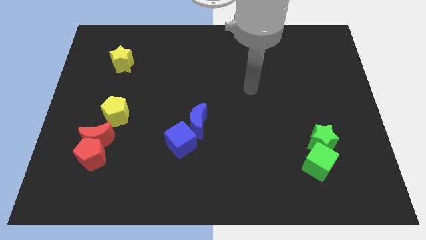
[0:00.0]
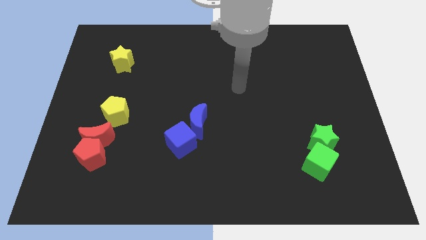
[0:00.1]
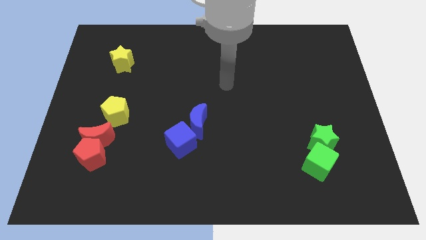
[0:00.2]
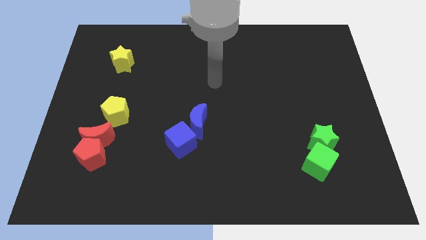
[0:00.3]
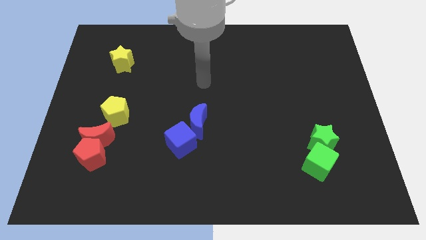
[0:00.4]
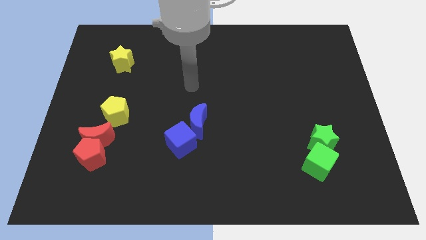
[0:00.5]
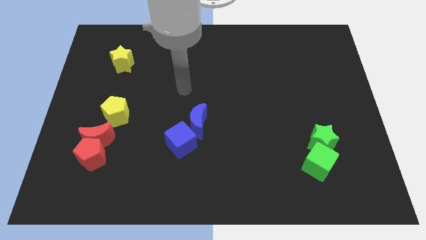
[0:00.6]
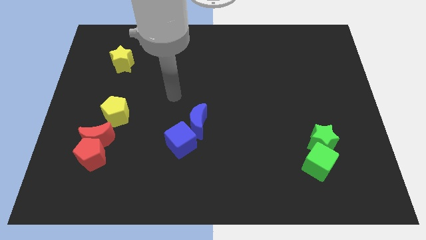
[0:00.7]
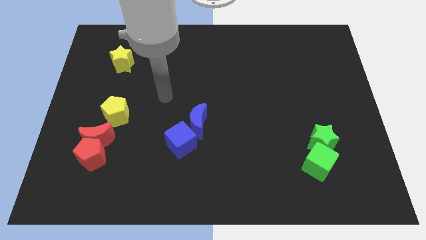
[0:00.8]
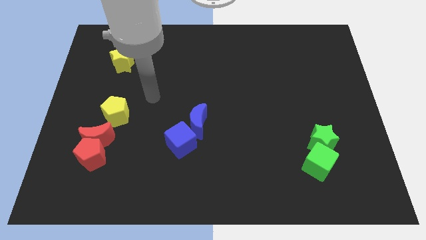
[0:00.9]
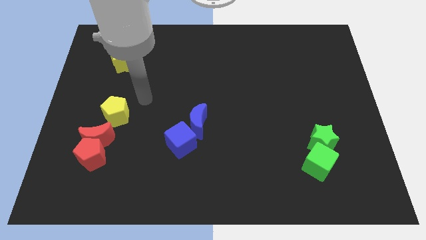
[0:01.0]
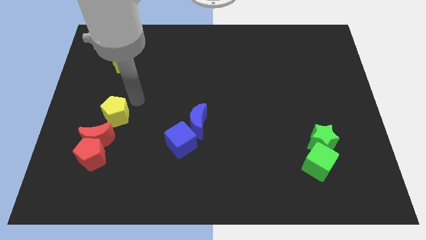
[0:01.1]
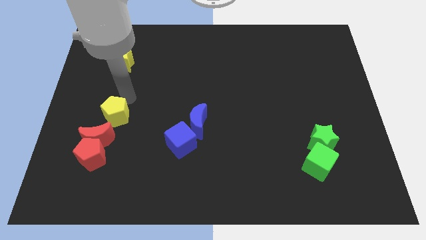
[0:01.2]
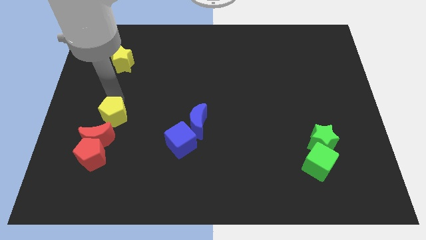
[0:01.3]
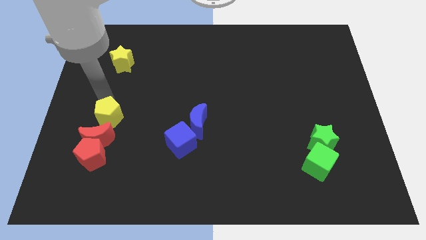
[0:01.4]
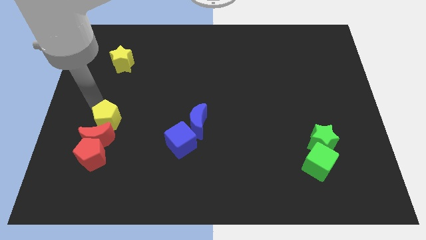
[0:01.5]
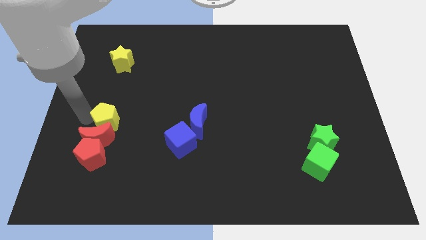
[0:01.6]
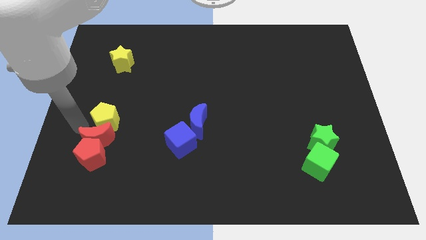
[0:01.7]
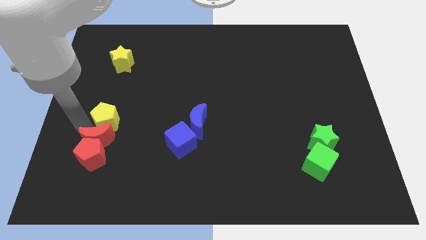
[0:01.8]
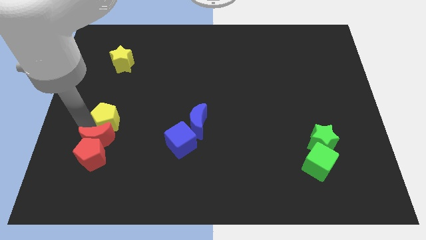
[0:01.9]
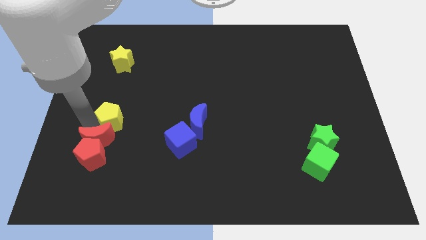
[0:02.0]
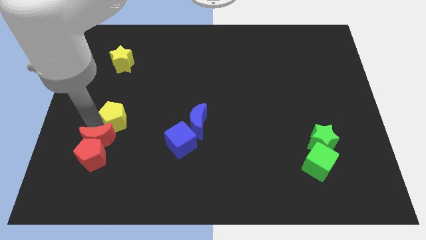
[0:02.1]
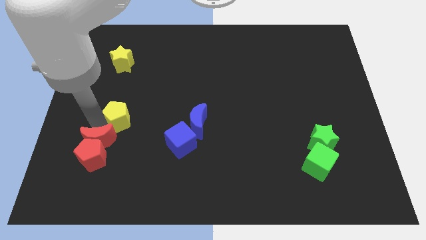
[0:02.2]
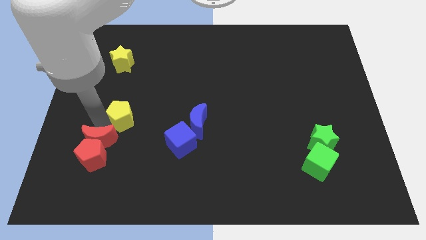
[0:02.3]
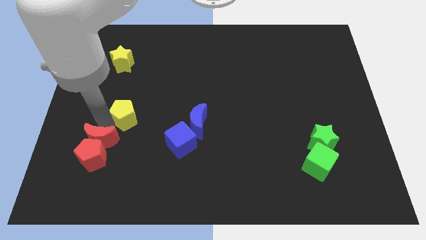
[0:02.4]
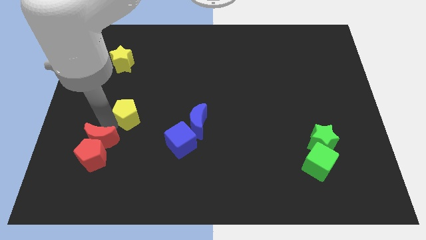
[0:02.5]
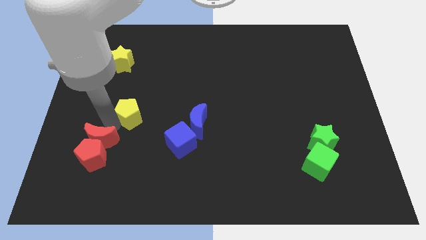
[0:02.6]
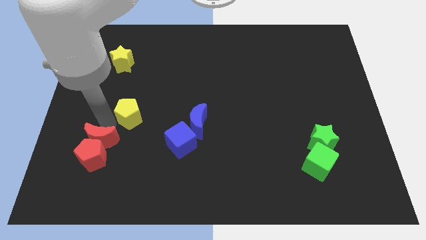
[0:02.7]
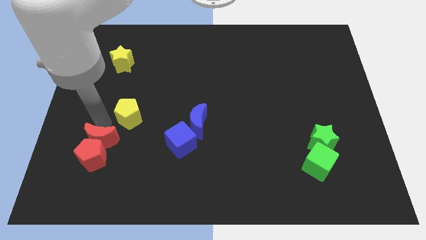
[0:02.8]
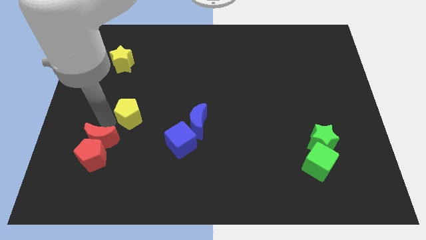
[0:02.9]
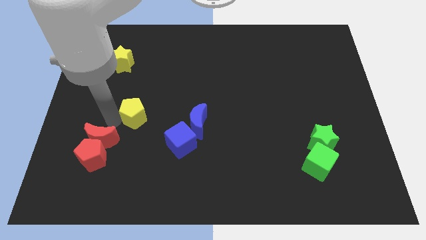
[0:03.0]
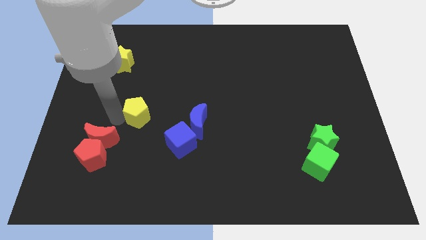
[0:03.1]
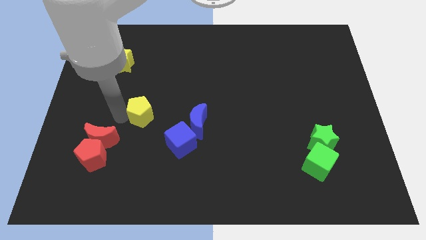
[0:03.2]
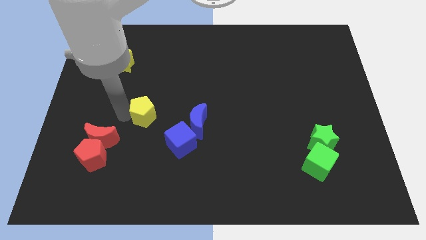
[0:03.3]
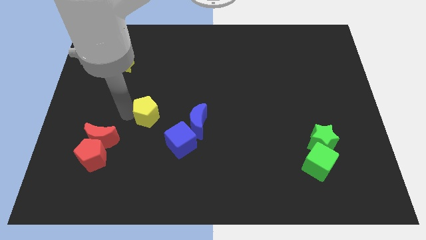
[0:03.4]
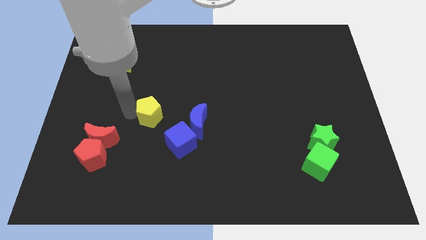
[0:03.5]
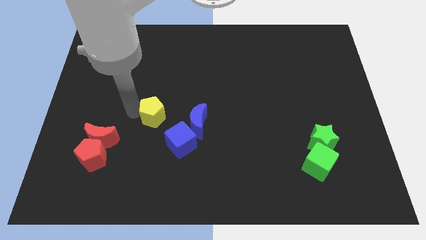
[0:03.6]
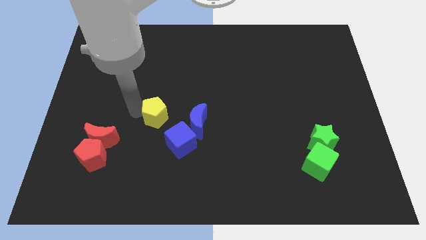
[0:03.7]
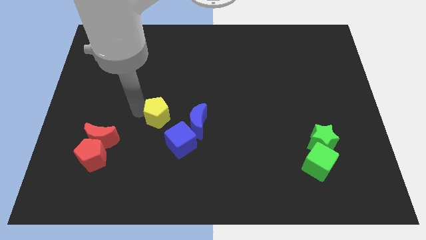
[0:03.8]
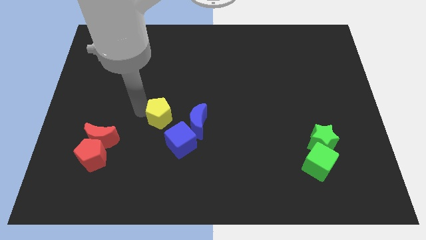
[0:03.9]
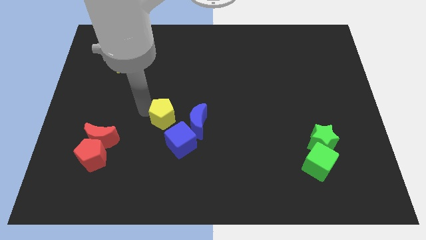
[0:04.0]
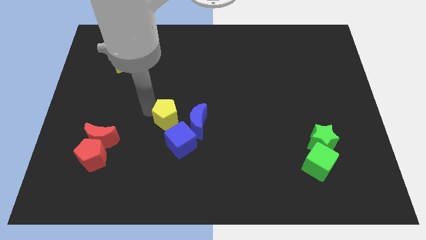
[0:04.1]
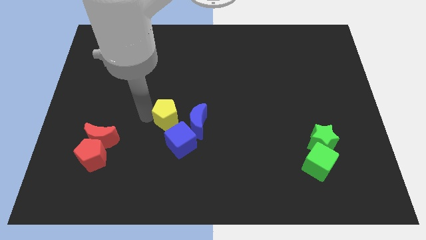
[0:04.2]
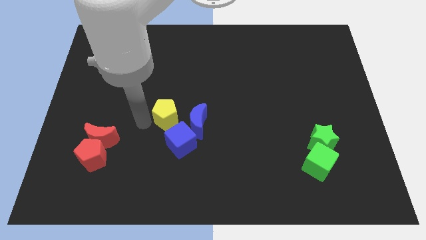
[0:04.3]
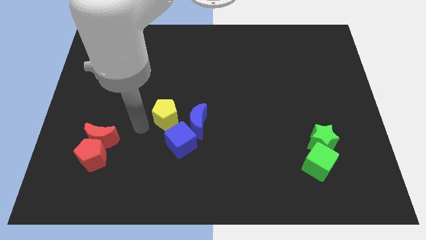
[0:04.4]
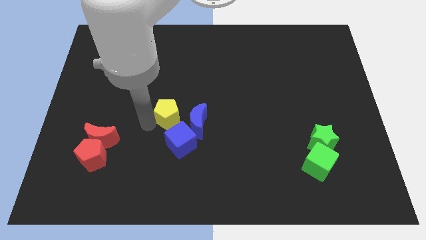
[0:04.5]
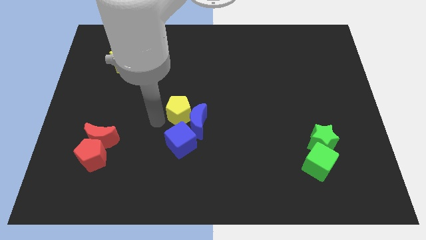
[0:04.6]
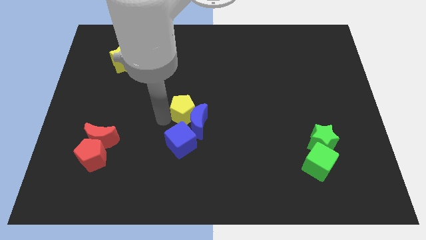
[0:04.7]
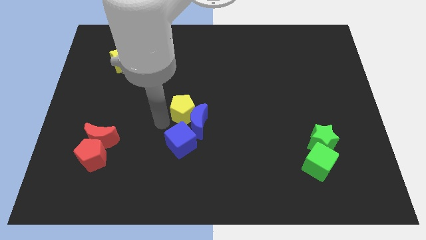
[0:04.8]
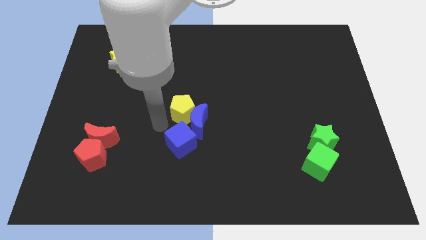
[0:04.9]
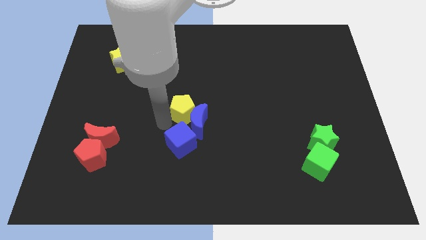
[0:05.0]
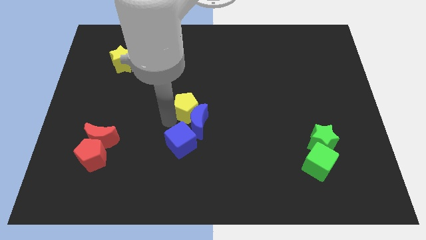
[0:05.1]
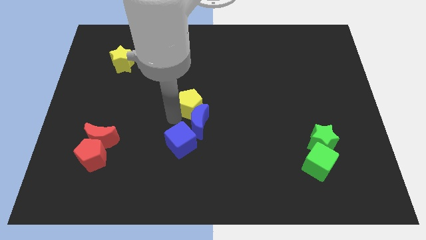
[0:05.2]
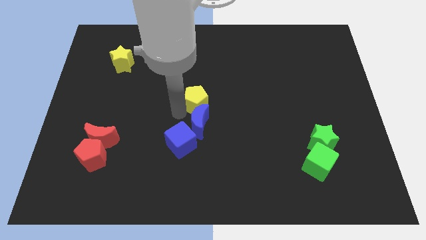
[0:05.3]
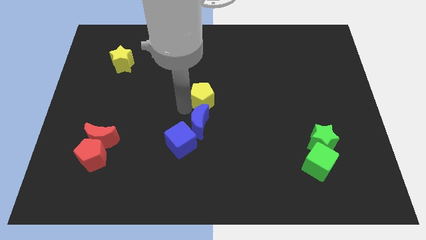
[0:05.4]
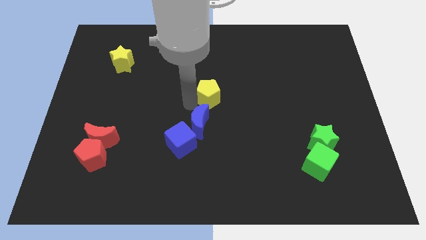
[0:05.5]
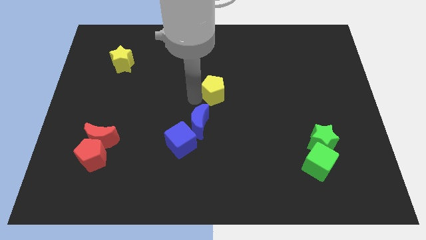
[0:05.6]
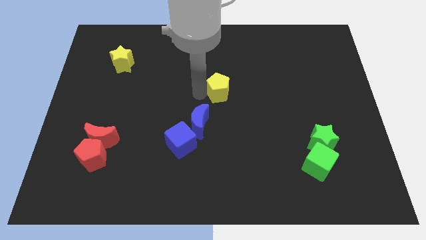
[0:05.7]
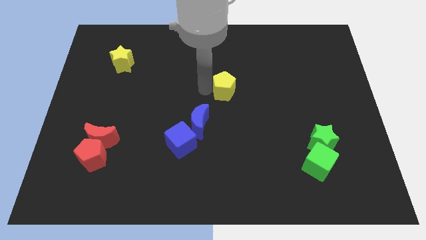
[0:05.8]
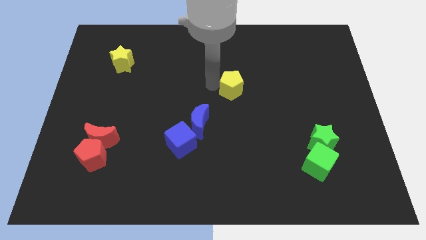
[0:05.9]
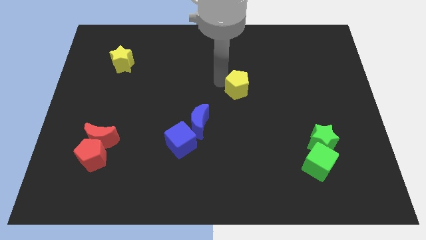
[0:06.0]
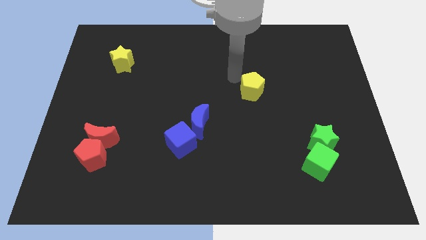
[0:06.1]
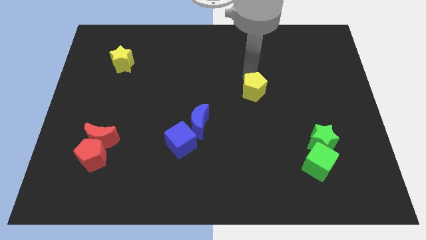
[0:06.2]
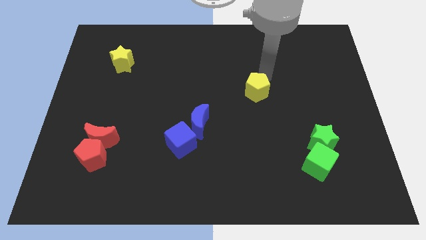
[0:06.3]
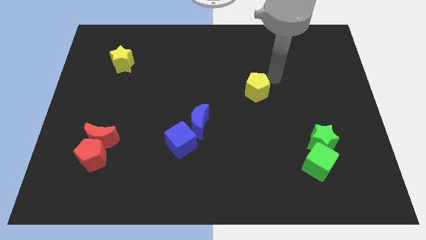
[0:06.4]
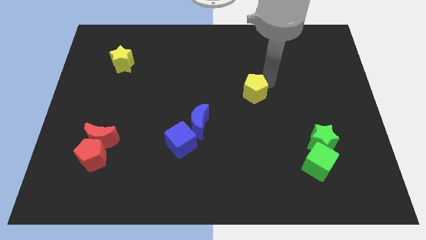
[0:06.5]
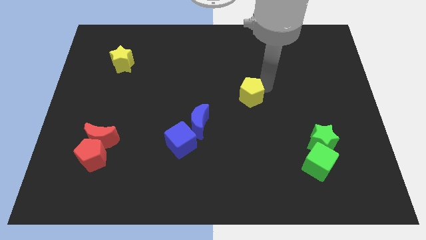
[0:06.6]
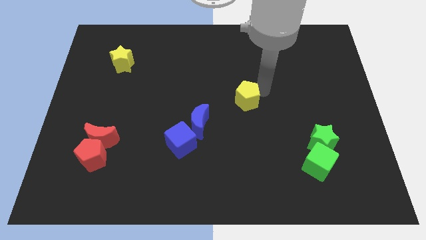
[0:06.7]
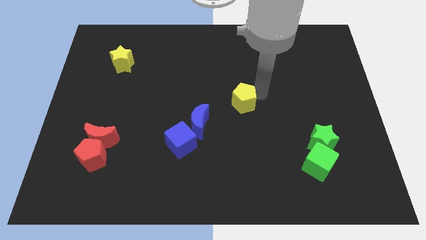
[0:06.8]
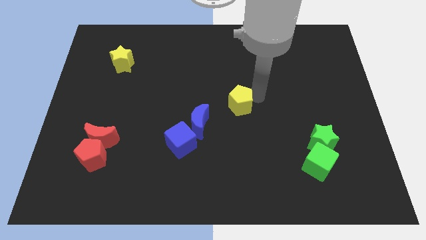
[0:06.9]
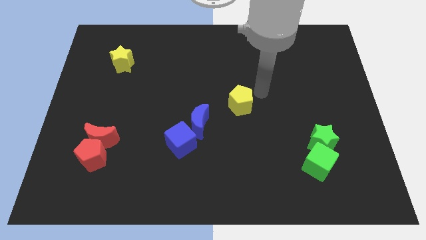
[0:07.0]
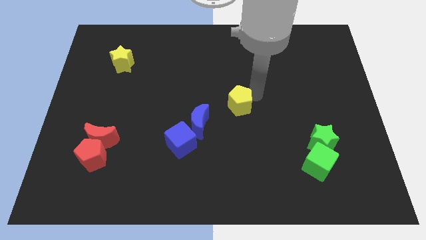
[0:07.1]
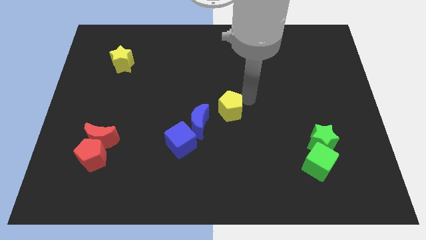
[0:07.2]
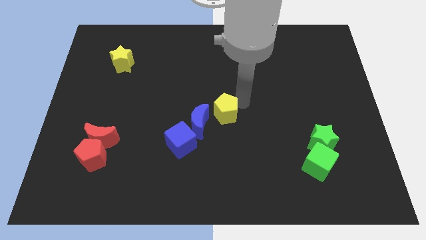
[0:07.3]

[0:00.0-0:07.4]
move the yellow pentagon to the top right side of the blue cube
